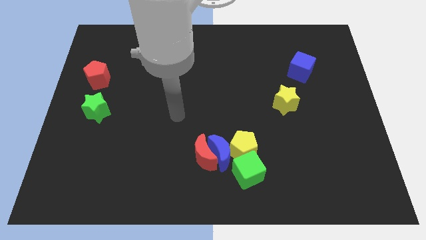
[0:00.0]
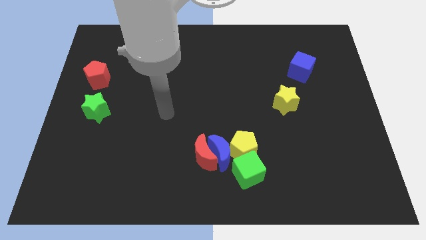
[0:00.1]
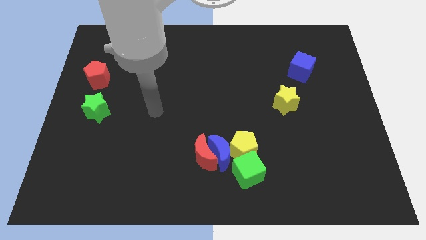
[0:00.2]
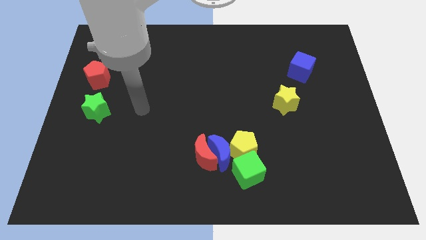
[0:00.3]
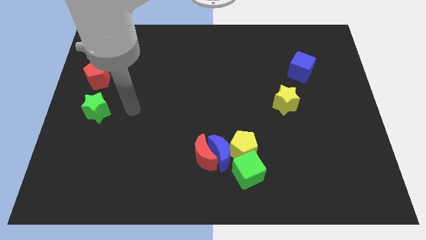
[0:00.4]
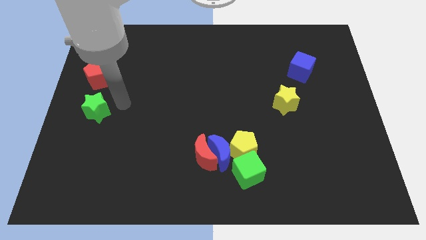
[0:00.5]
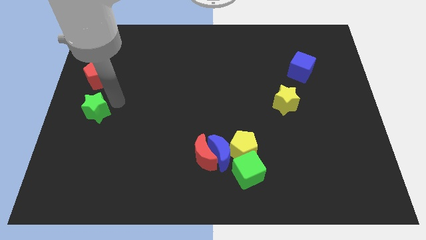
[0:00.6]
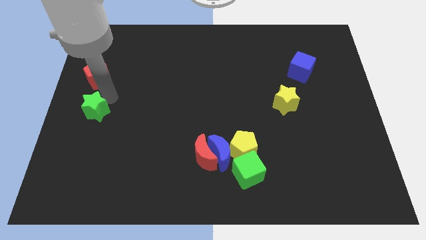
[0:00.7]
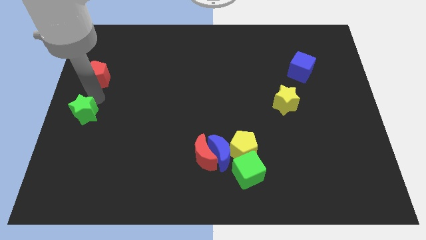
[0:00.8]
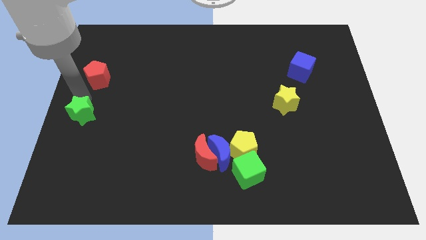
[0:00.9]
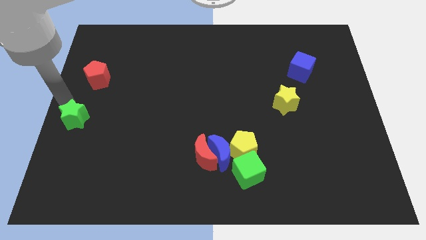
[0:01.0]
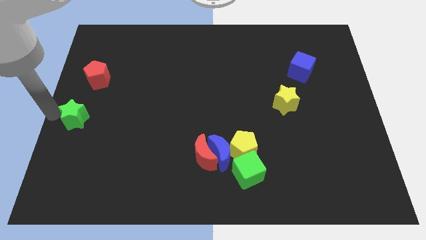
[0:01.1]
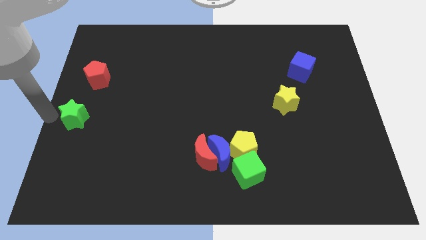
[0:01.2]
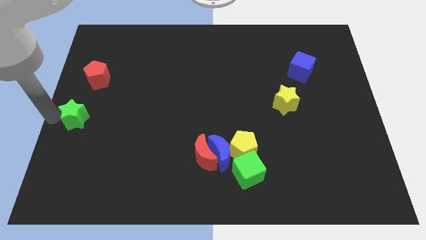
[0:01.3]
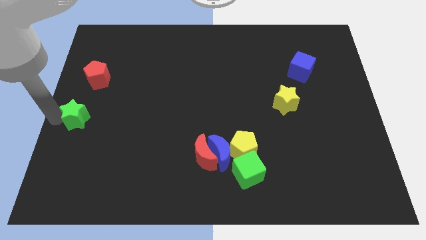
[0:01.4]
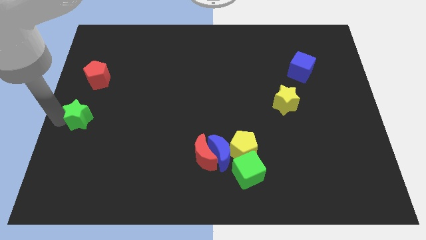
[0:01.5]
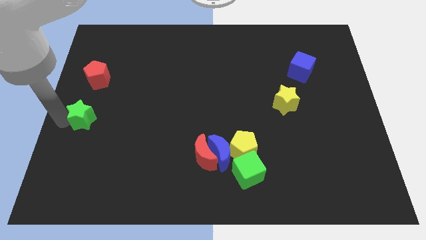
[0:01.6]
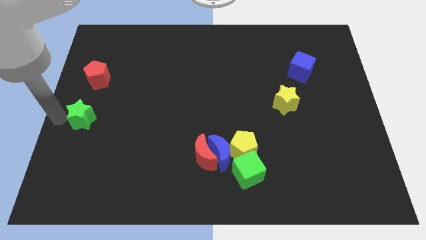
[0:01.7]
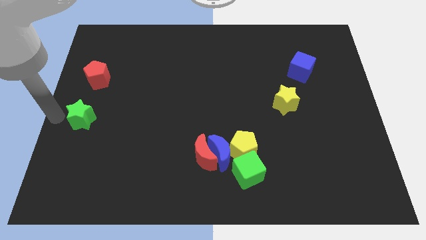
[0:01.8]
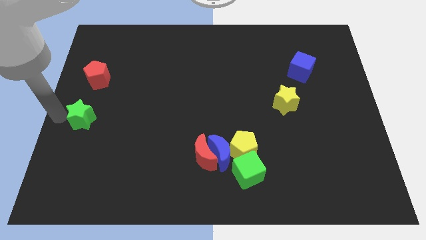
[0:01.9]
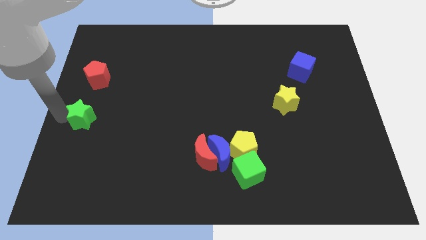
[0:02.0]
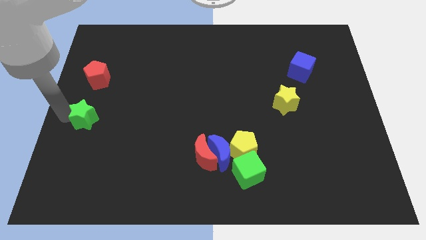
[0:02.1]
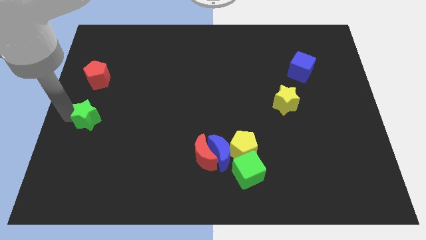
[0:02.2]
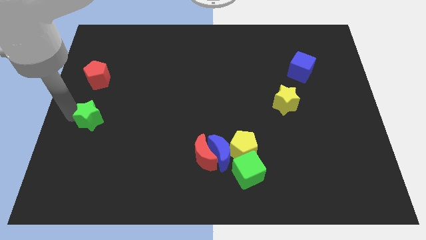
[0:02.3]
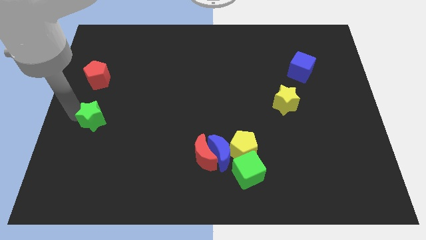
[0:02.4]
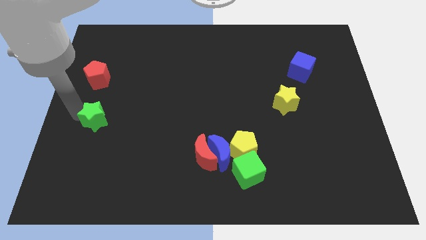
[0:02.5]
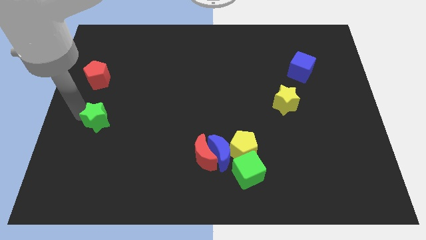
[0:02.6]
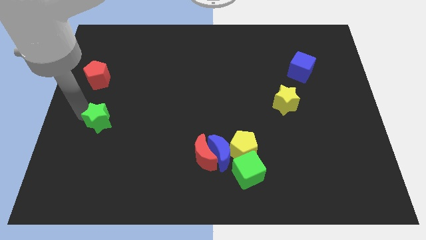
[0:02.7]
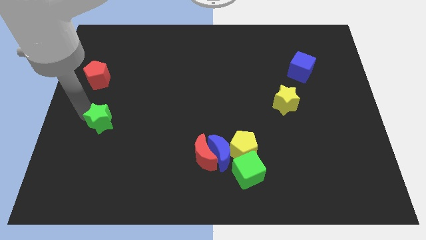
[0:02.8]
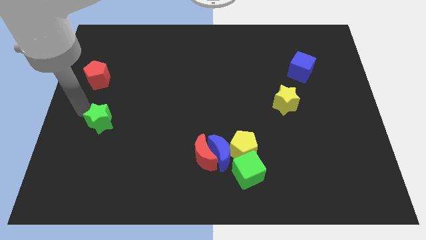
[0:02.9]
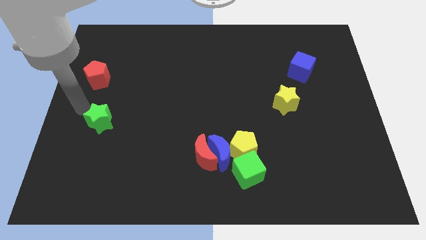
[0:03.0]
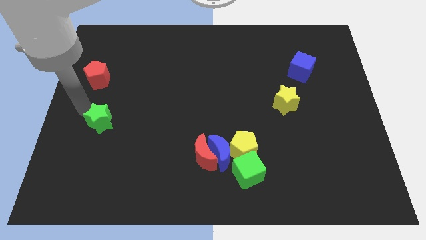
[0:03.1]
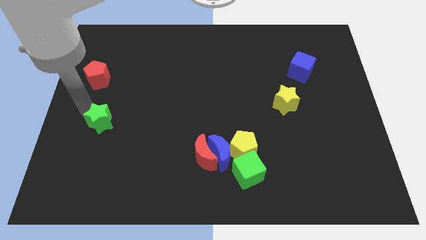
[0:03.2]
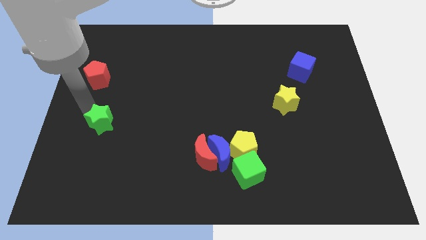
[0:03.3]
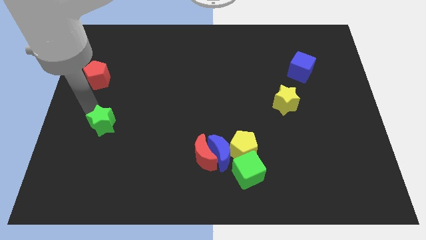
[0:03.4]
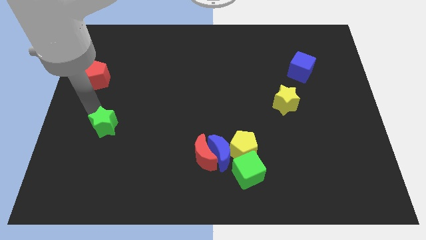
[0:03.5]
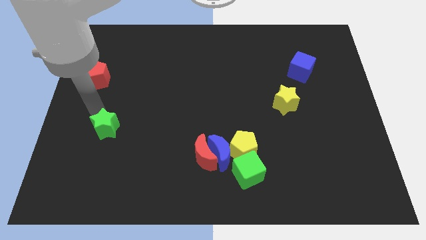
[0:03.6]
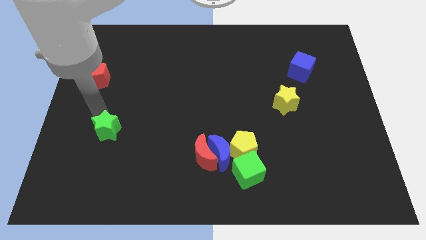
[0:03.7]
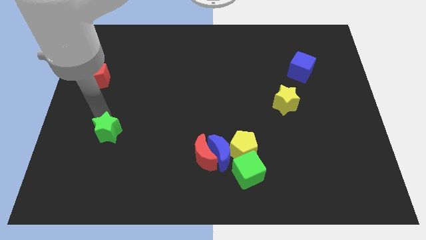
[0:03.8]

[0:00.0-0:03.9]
slide the green star downwards and then to the right slightly

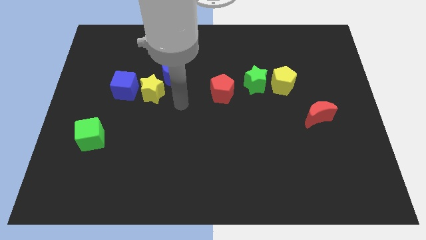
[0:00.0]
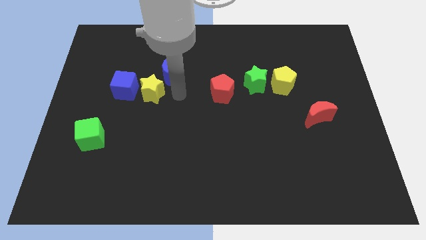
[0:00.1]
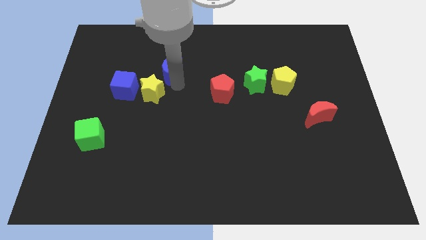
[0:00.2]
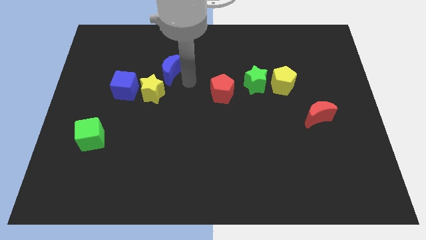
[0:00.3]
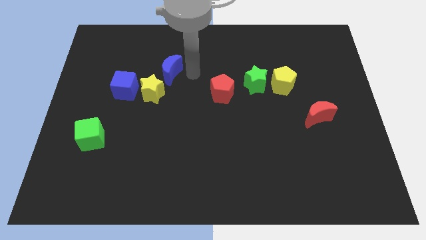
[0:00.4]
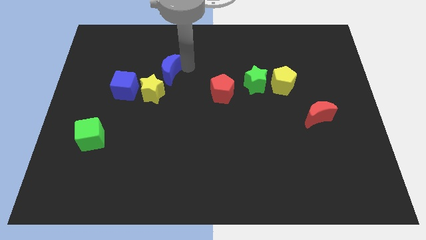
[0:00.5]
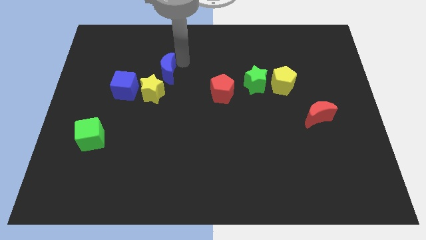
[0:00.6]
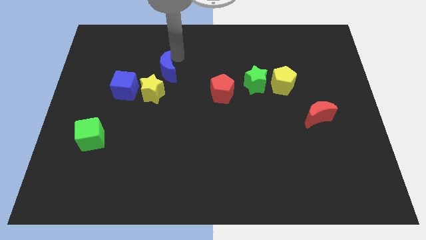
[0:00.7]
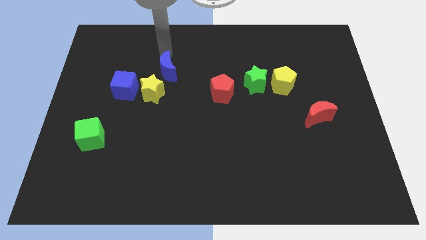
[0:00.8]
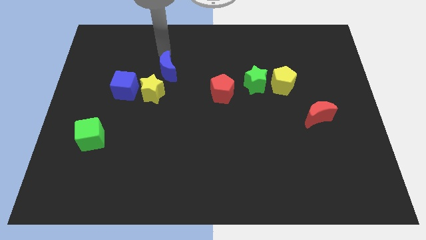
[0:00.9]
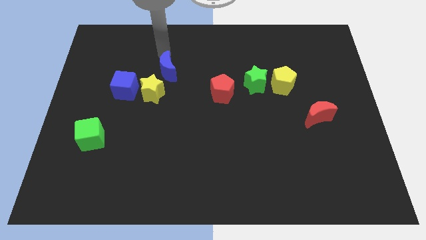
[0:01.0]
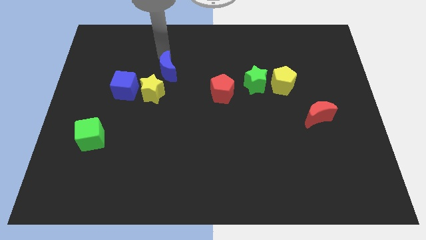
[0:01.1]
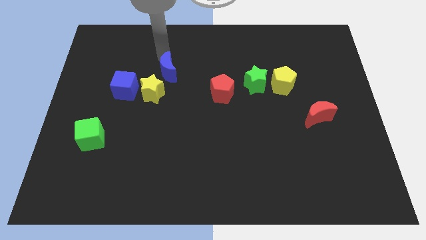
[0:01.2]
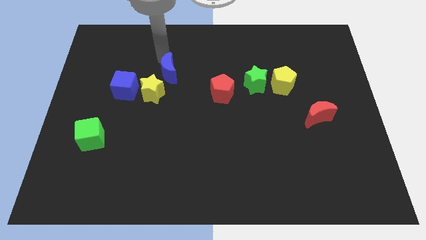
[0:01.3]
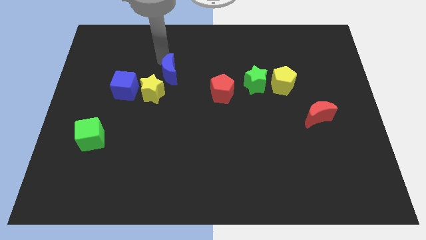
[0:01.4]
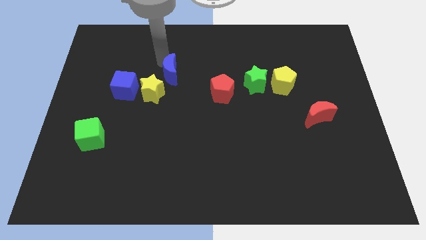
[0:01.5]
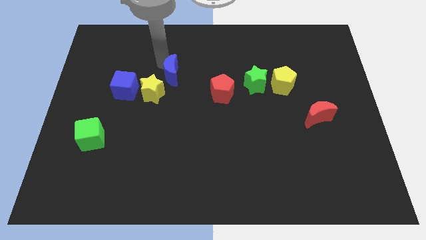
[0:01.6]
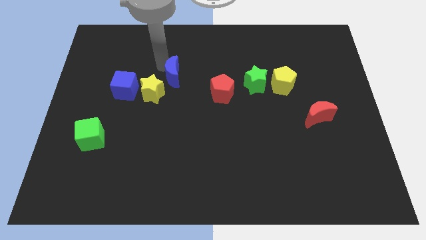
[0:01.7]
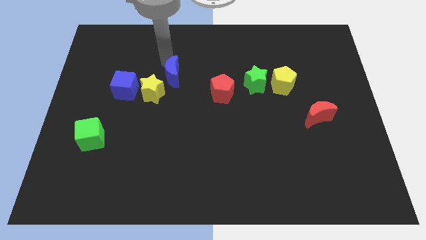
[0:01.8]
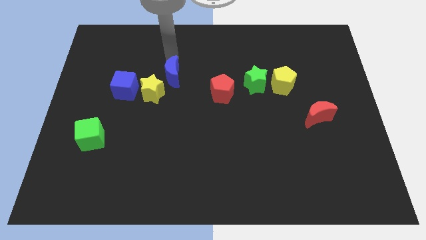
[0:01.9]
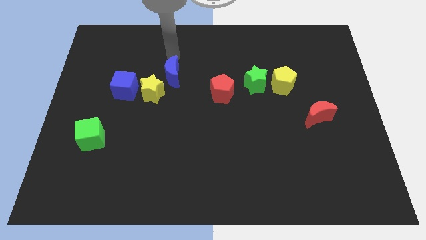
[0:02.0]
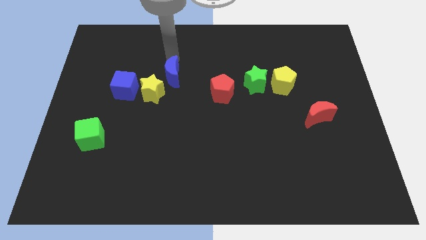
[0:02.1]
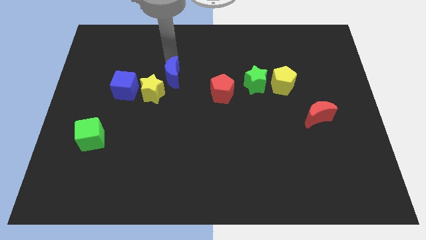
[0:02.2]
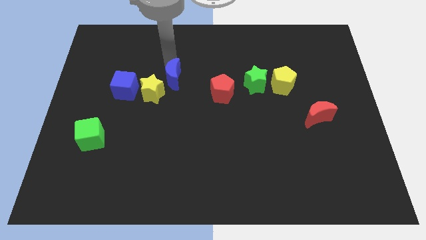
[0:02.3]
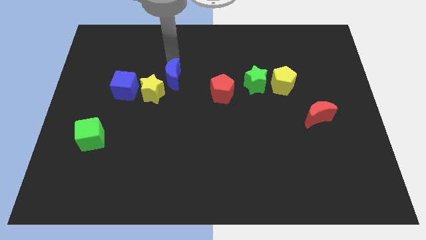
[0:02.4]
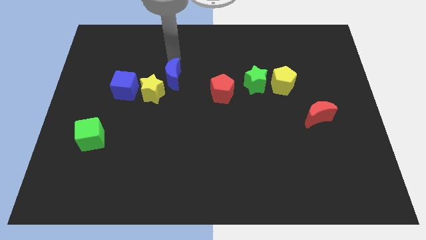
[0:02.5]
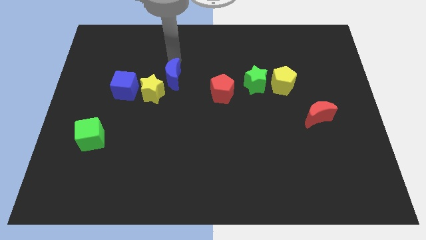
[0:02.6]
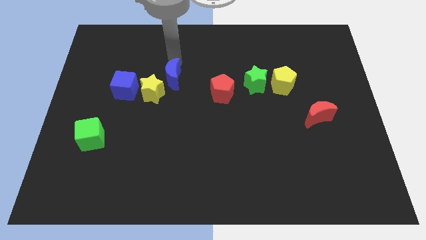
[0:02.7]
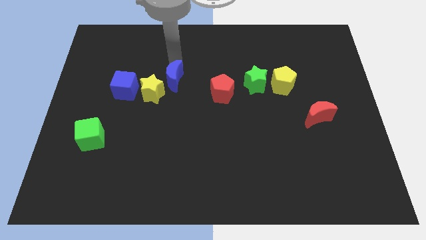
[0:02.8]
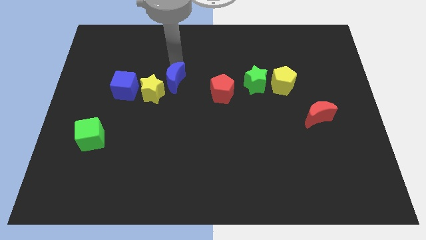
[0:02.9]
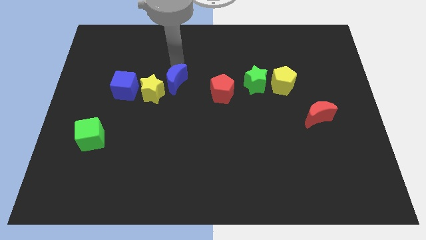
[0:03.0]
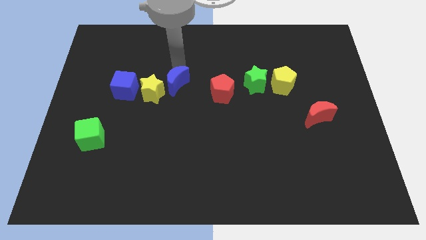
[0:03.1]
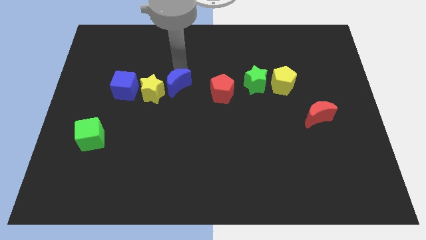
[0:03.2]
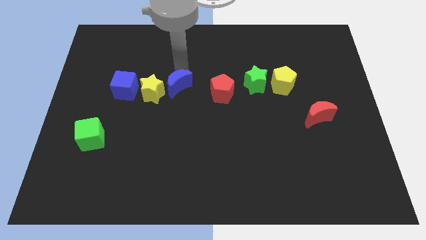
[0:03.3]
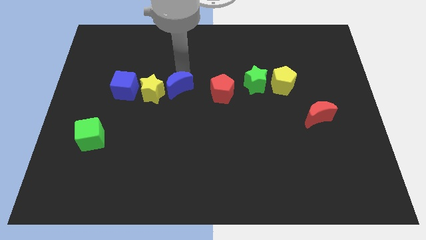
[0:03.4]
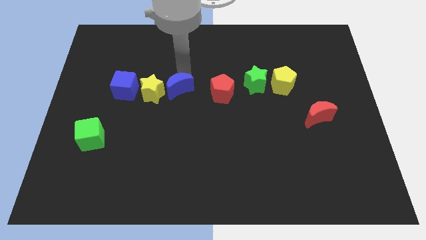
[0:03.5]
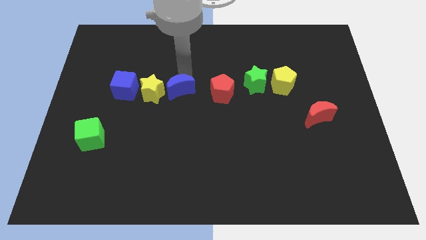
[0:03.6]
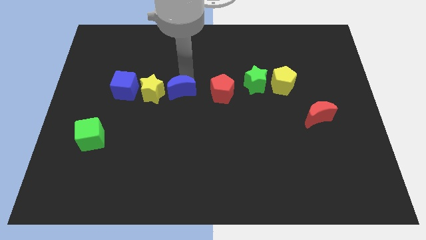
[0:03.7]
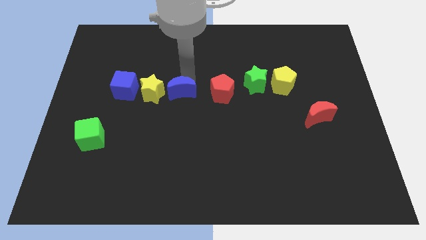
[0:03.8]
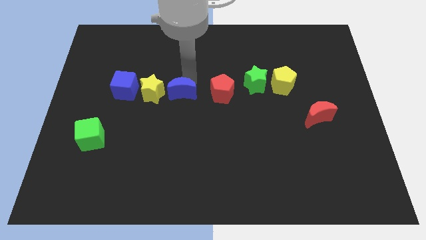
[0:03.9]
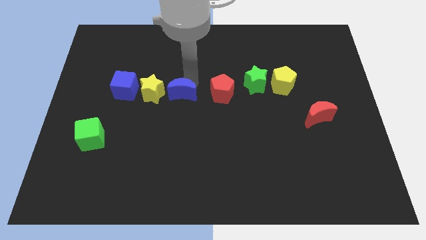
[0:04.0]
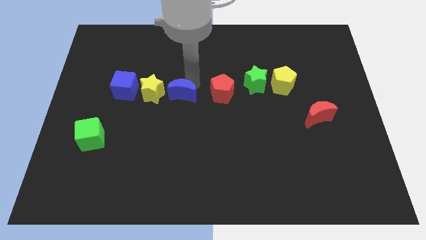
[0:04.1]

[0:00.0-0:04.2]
slide the blue moon down a little
